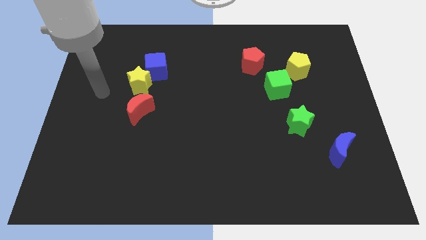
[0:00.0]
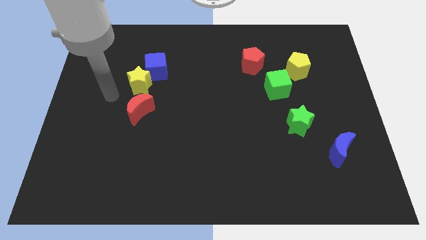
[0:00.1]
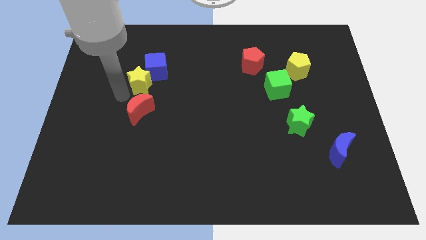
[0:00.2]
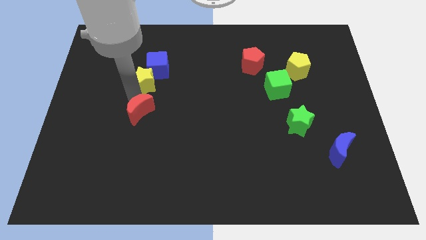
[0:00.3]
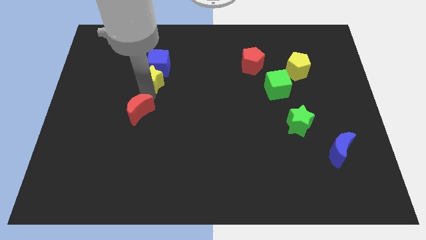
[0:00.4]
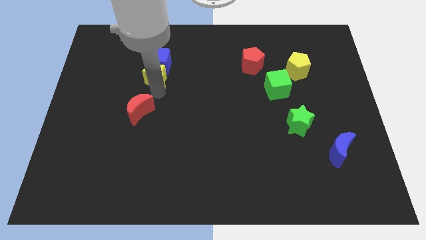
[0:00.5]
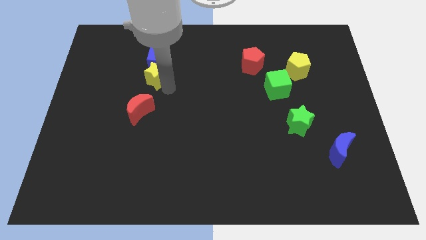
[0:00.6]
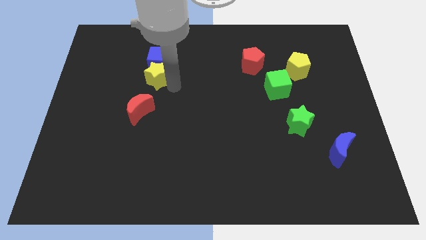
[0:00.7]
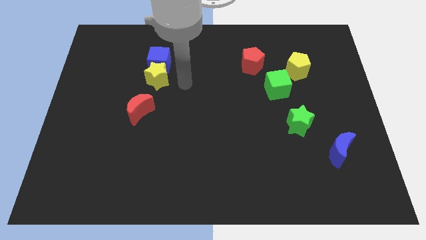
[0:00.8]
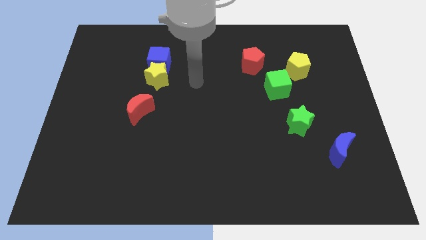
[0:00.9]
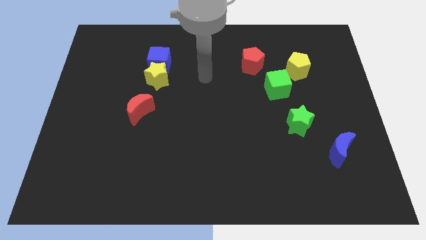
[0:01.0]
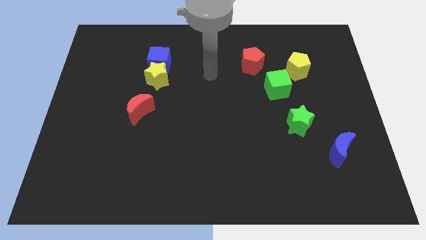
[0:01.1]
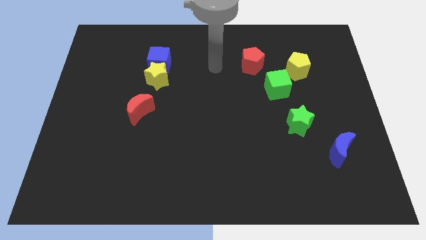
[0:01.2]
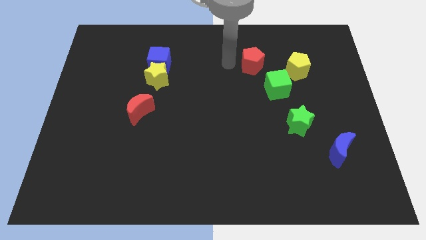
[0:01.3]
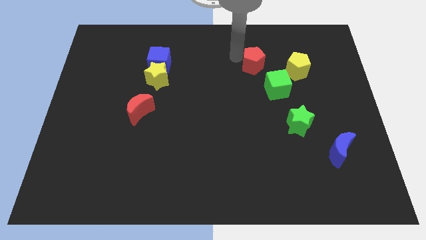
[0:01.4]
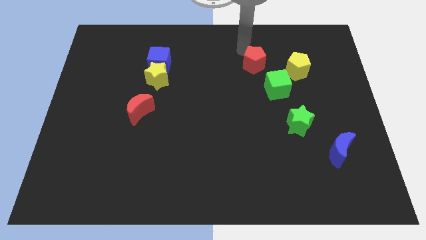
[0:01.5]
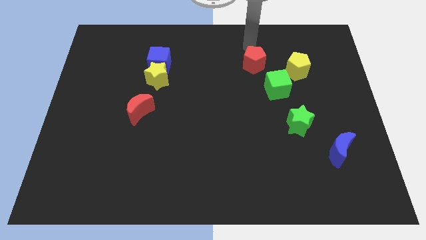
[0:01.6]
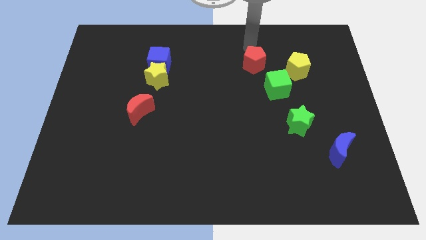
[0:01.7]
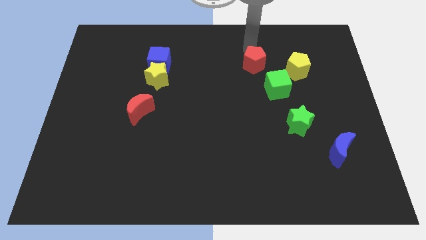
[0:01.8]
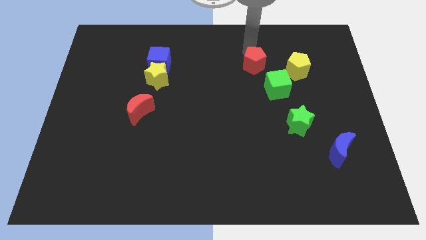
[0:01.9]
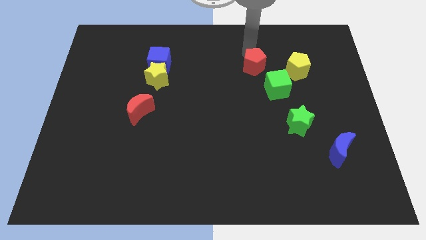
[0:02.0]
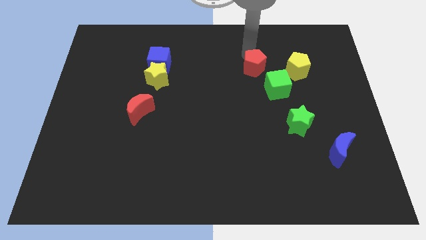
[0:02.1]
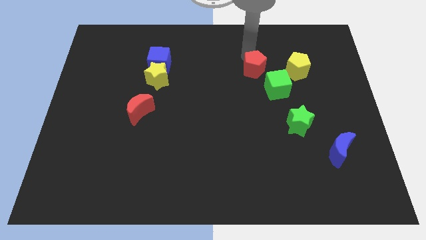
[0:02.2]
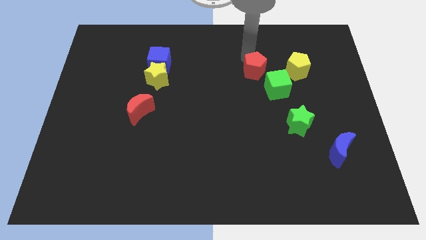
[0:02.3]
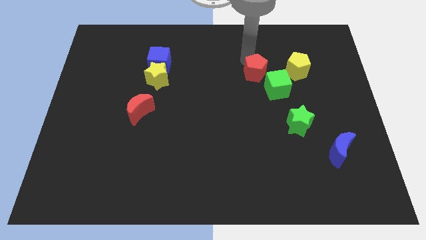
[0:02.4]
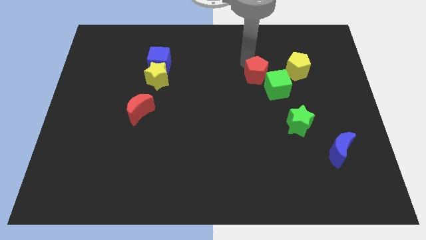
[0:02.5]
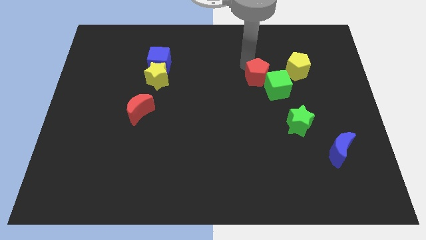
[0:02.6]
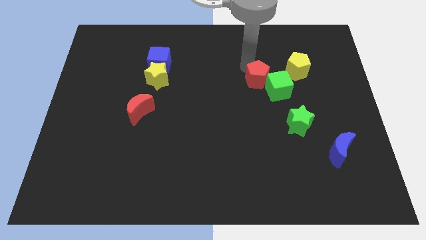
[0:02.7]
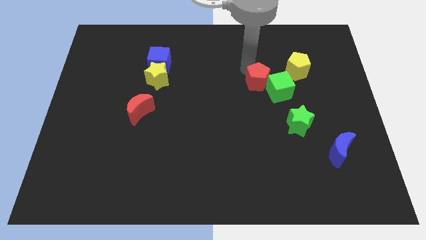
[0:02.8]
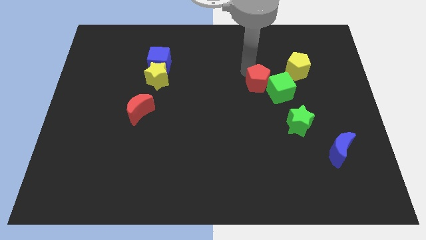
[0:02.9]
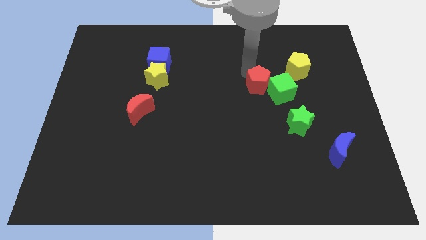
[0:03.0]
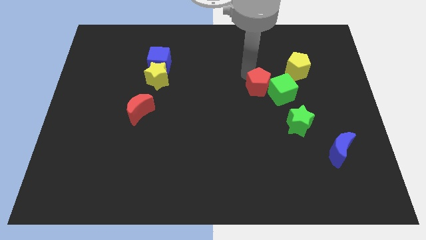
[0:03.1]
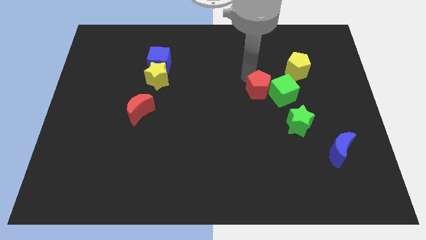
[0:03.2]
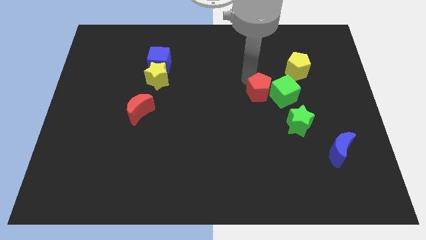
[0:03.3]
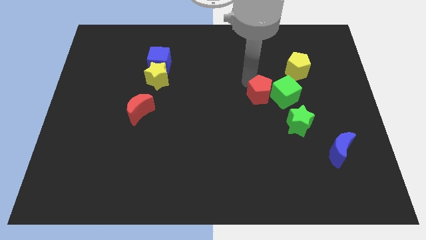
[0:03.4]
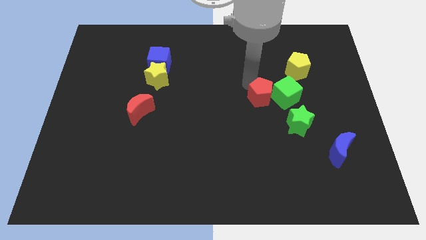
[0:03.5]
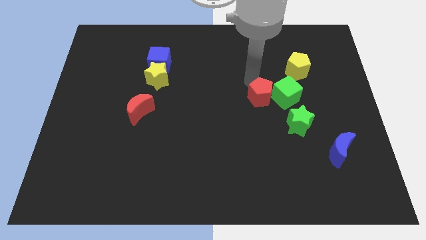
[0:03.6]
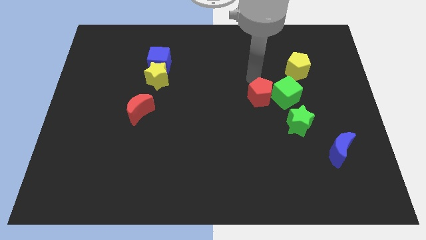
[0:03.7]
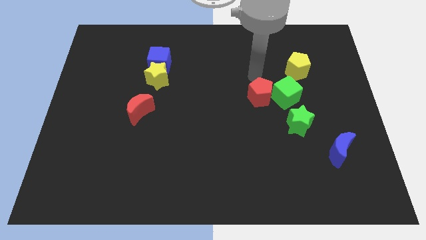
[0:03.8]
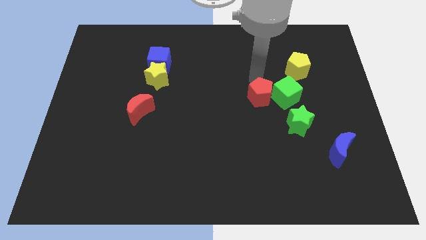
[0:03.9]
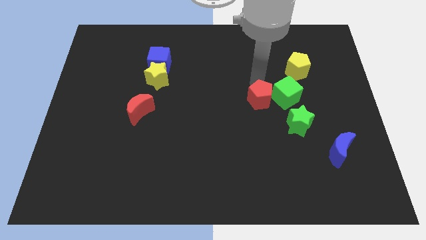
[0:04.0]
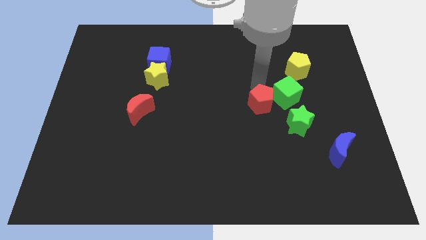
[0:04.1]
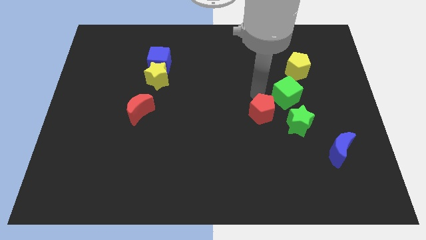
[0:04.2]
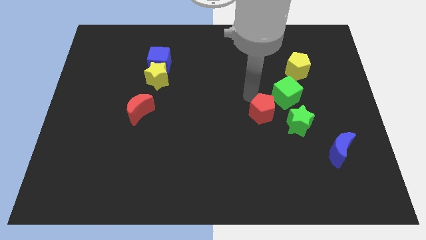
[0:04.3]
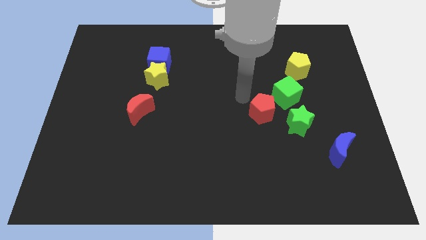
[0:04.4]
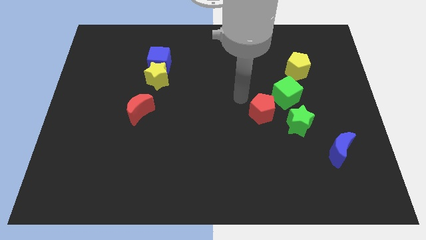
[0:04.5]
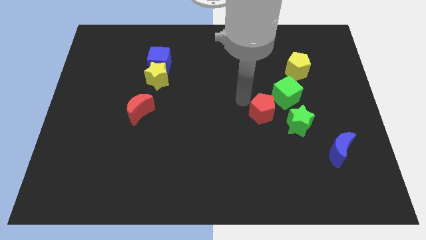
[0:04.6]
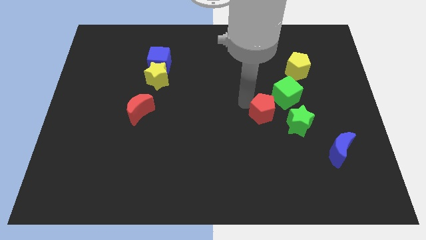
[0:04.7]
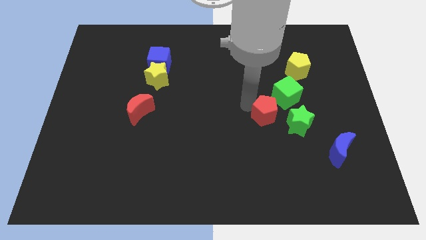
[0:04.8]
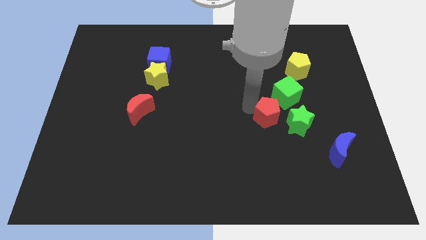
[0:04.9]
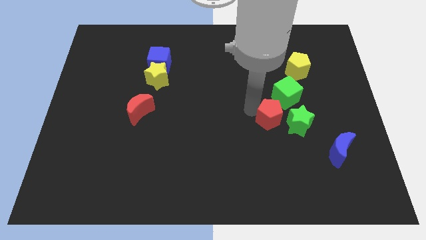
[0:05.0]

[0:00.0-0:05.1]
slide the red pentagon to the bottom of the green cube

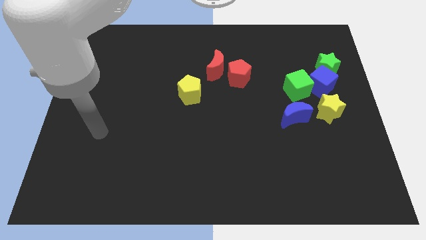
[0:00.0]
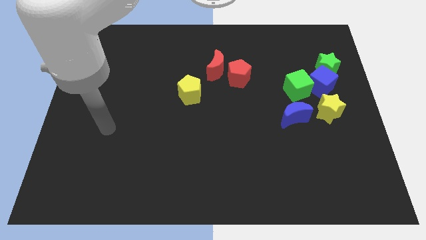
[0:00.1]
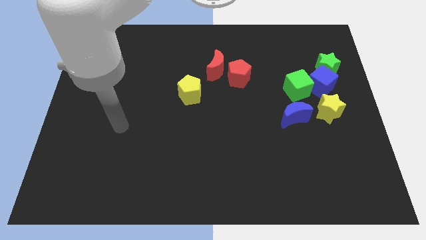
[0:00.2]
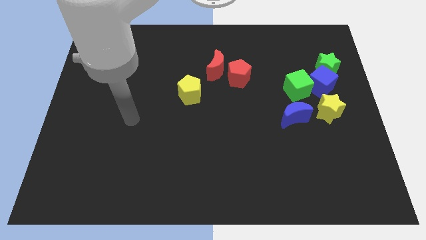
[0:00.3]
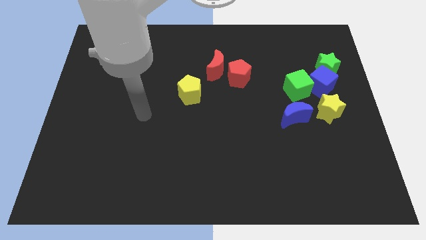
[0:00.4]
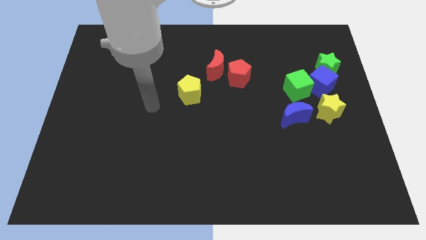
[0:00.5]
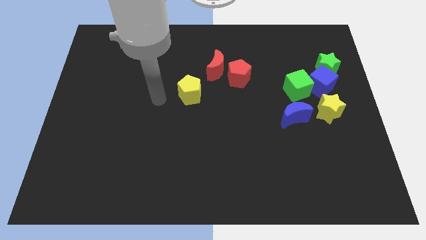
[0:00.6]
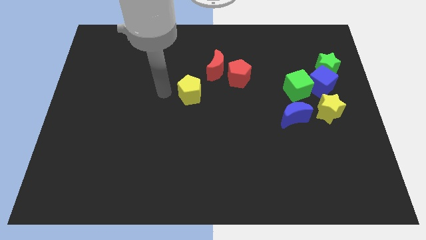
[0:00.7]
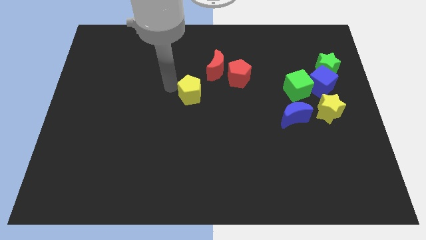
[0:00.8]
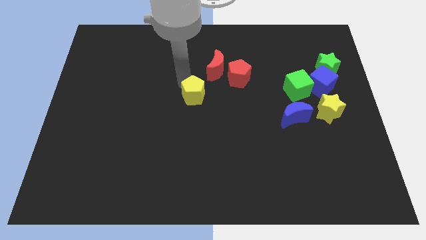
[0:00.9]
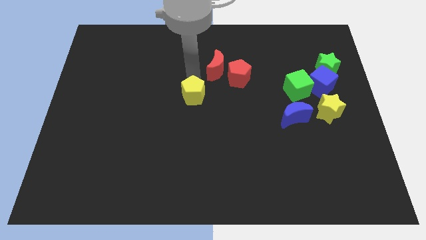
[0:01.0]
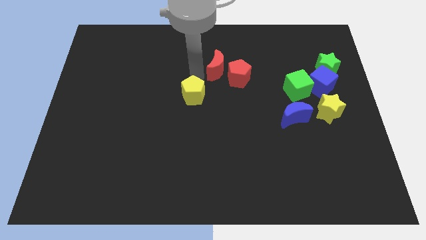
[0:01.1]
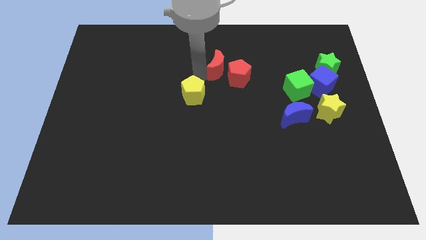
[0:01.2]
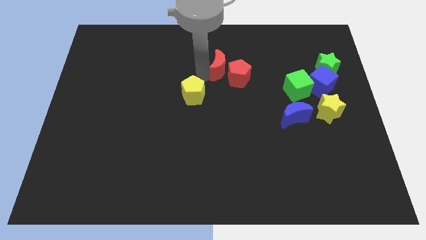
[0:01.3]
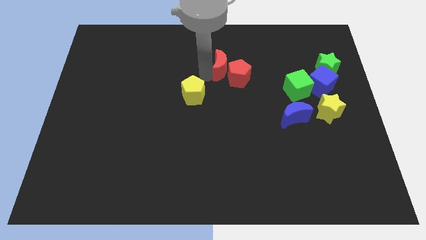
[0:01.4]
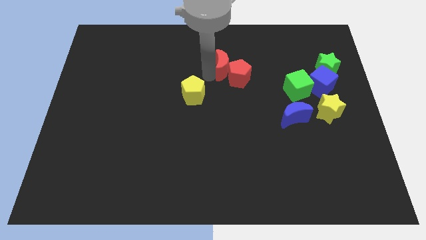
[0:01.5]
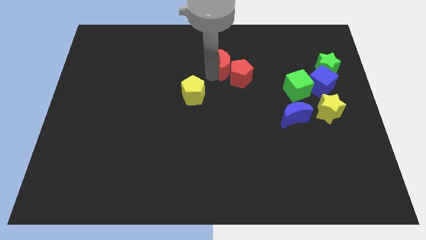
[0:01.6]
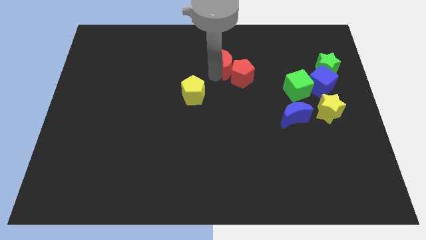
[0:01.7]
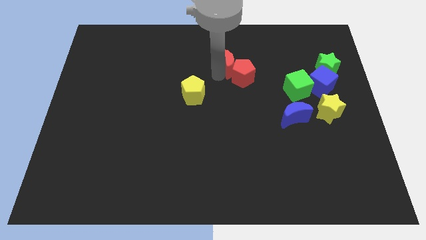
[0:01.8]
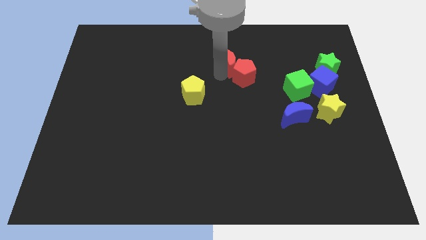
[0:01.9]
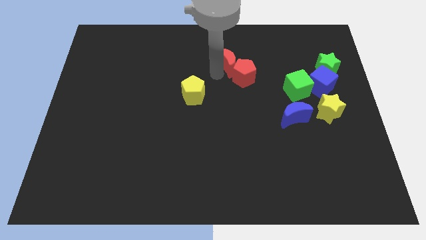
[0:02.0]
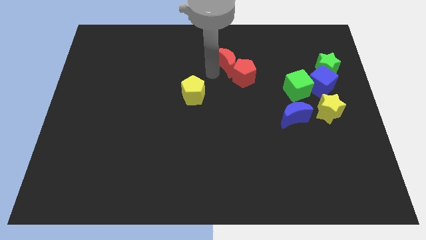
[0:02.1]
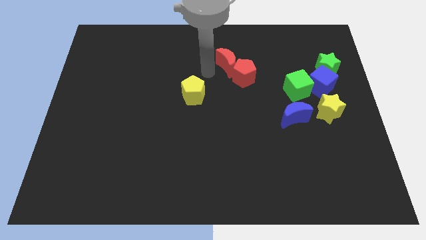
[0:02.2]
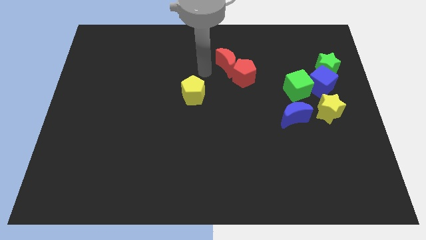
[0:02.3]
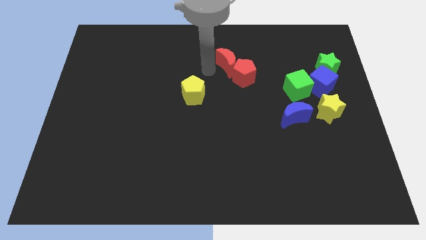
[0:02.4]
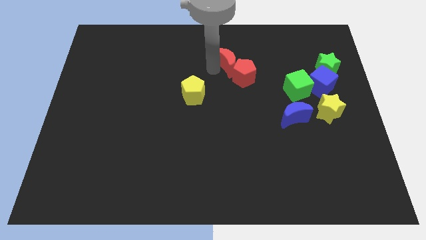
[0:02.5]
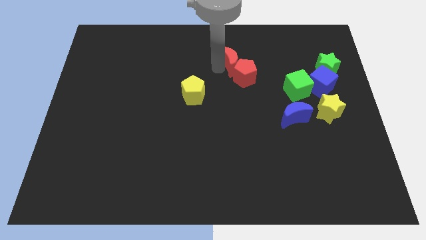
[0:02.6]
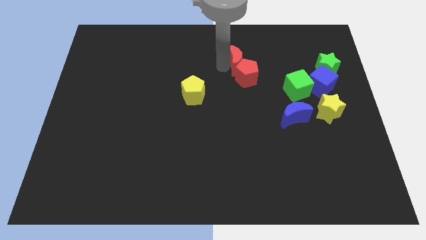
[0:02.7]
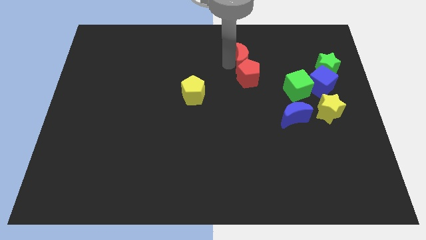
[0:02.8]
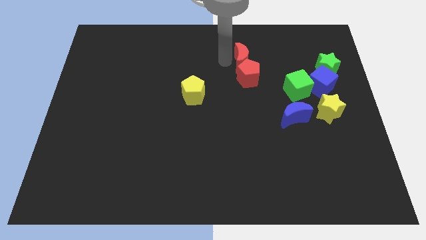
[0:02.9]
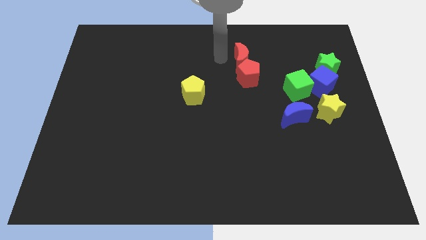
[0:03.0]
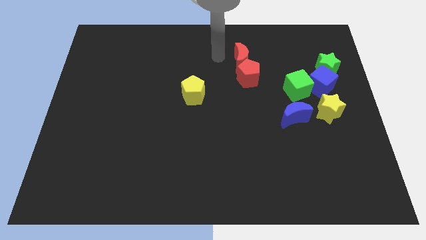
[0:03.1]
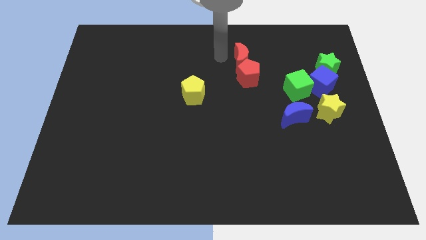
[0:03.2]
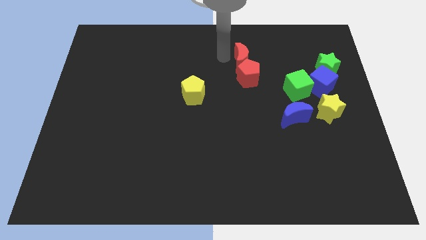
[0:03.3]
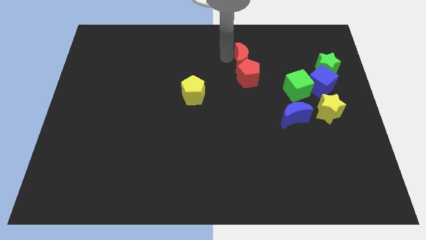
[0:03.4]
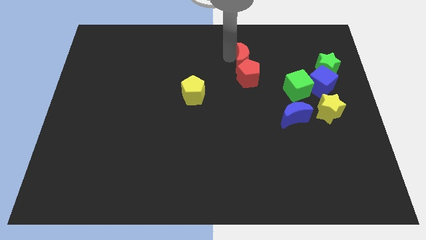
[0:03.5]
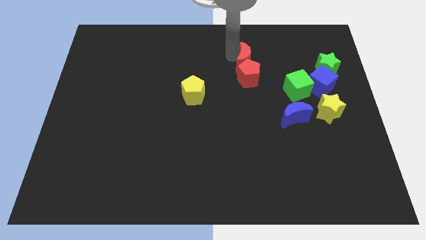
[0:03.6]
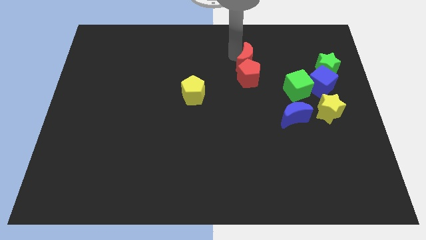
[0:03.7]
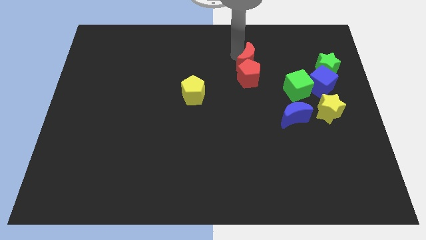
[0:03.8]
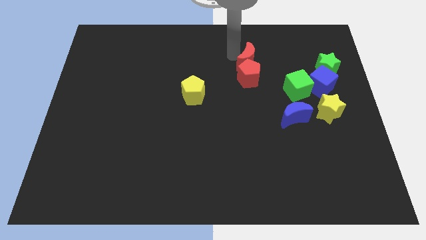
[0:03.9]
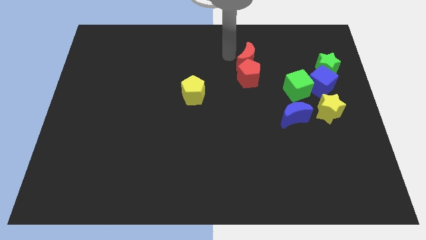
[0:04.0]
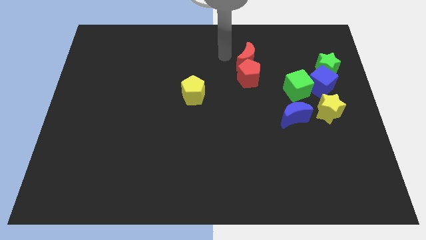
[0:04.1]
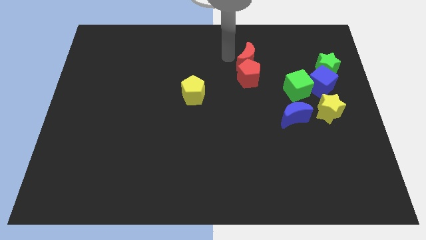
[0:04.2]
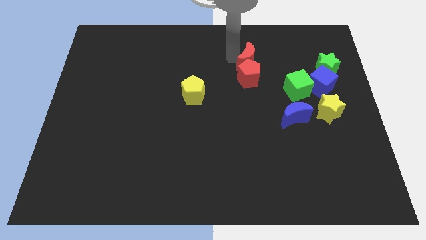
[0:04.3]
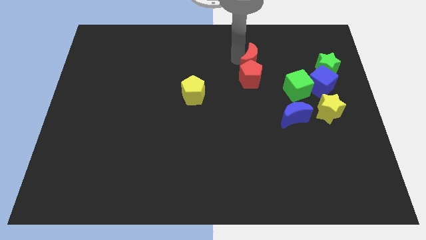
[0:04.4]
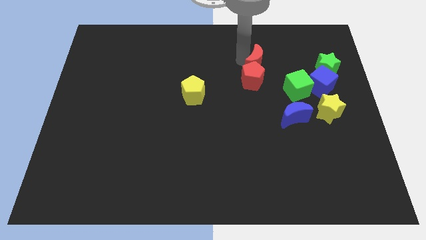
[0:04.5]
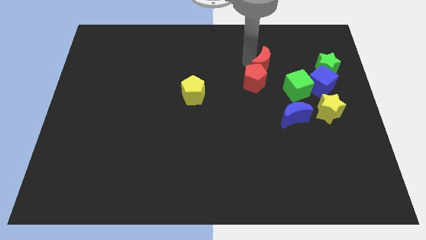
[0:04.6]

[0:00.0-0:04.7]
push the red moon left of the green star
